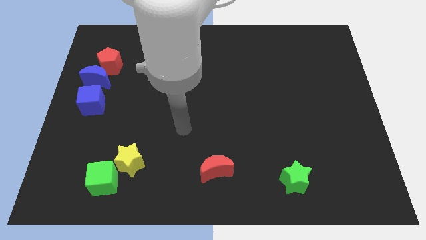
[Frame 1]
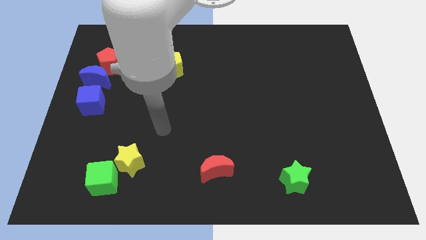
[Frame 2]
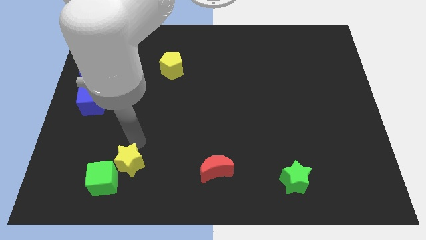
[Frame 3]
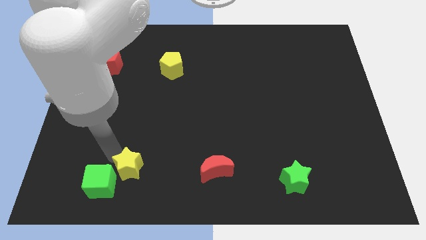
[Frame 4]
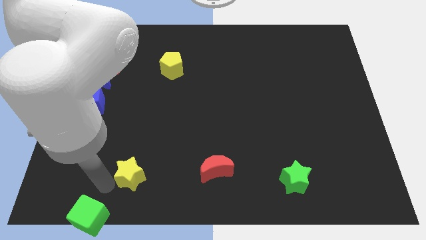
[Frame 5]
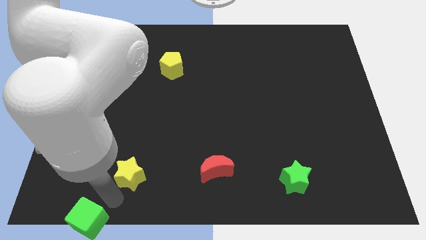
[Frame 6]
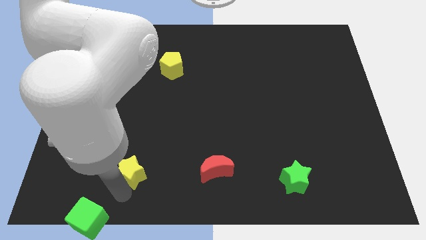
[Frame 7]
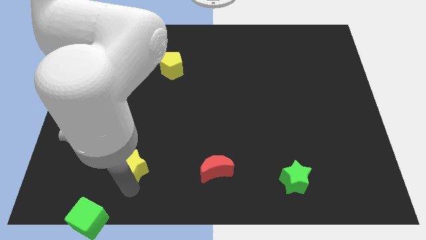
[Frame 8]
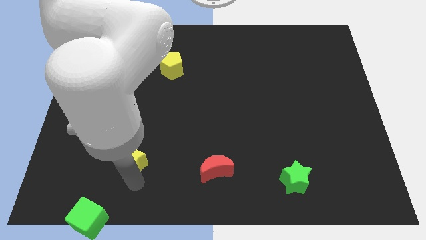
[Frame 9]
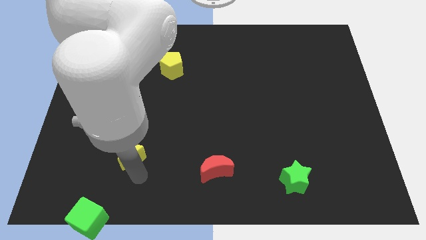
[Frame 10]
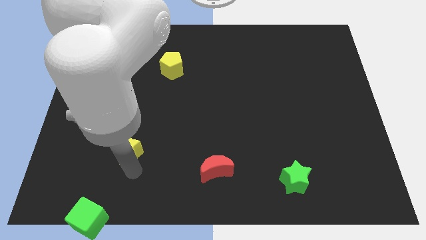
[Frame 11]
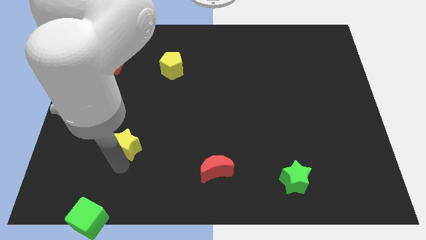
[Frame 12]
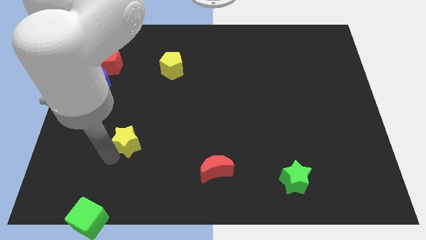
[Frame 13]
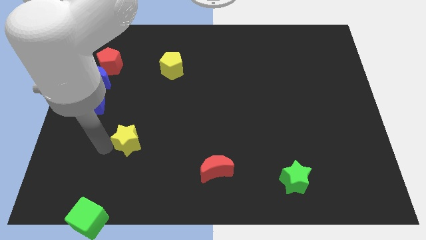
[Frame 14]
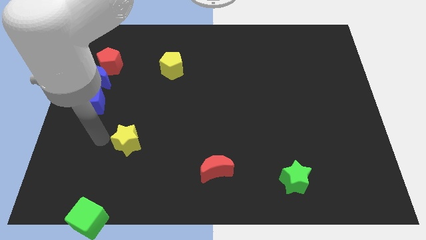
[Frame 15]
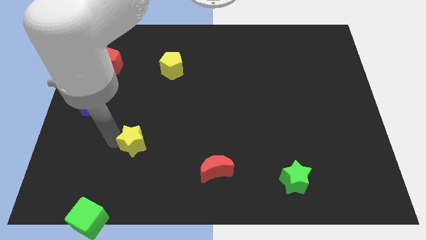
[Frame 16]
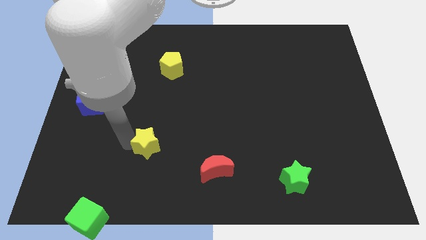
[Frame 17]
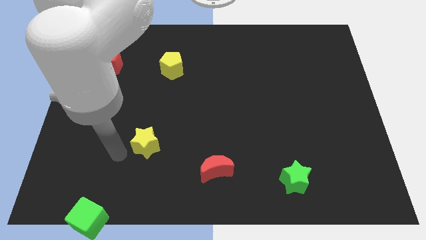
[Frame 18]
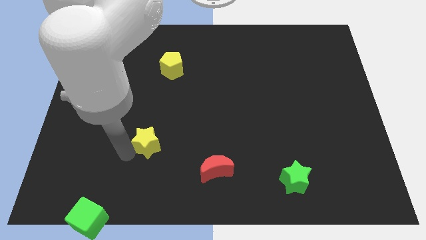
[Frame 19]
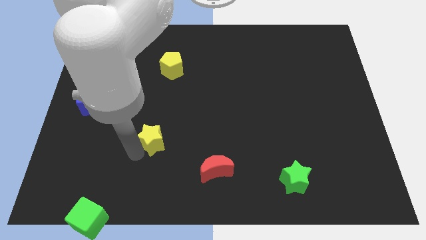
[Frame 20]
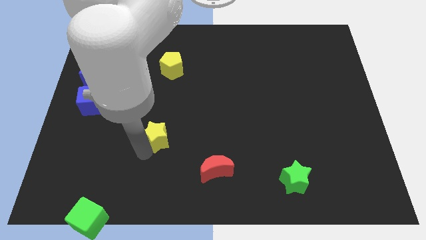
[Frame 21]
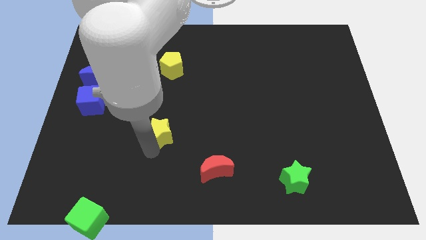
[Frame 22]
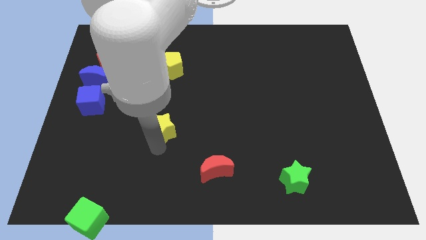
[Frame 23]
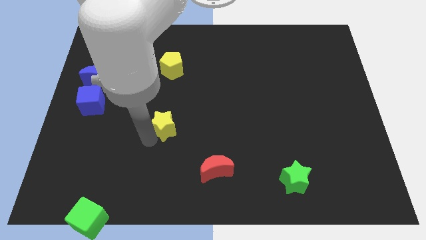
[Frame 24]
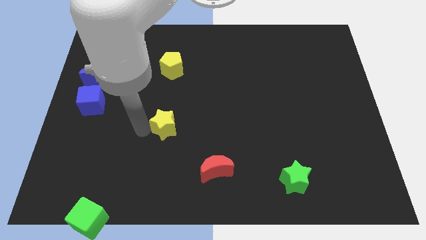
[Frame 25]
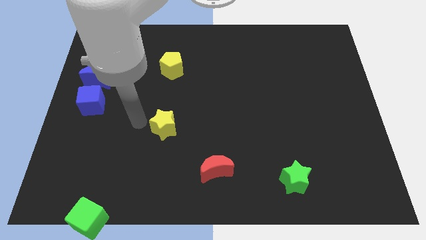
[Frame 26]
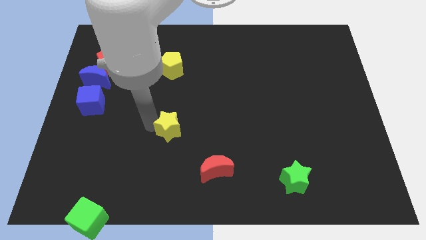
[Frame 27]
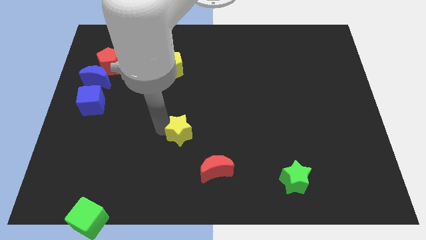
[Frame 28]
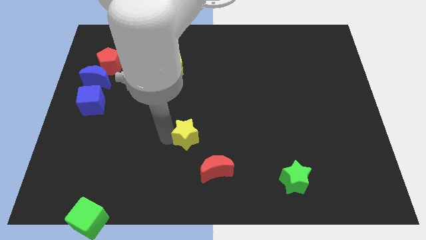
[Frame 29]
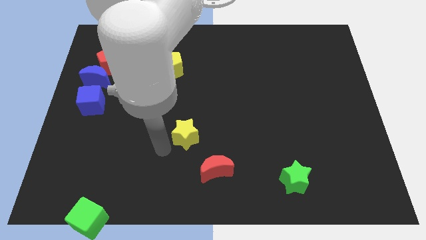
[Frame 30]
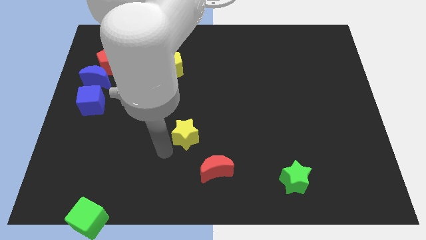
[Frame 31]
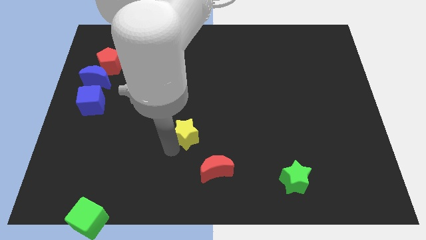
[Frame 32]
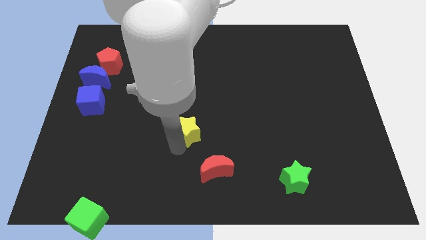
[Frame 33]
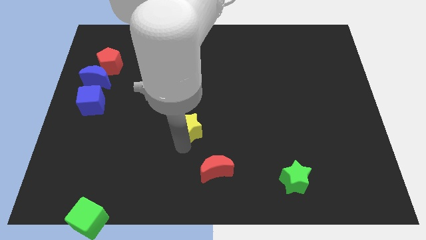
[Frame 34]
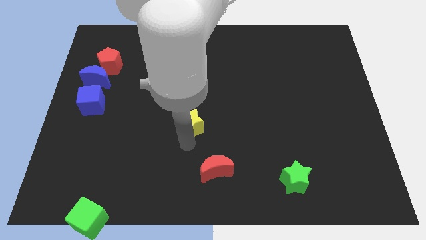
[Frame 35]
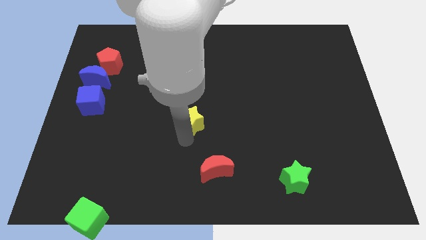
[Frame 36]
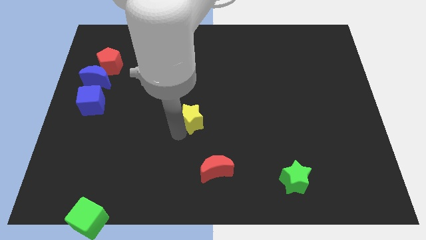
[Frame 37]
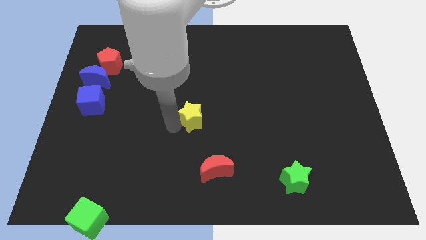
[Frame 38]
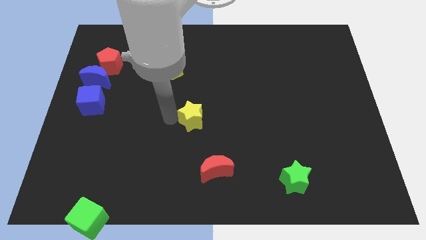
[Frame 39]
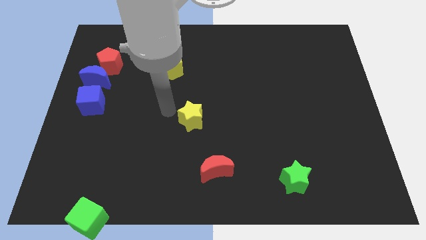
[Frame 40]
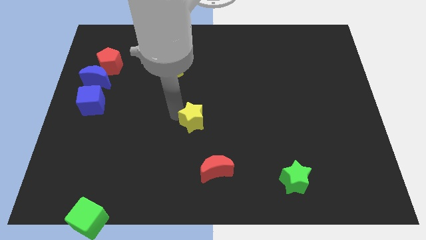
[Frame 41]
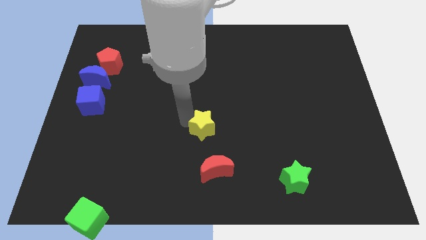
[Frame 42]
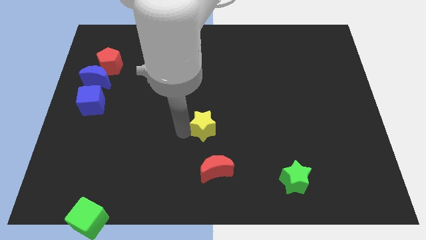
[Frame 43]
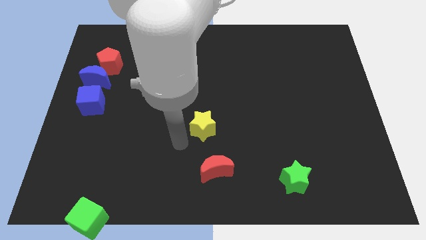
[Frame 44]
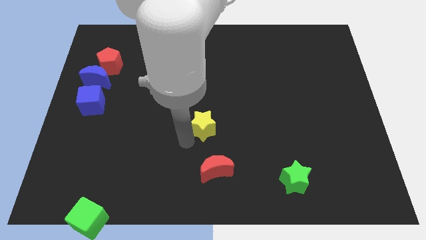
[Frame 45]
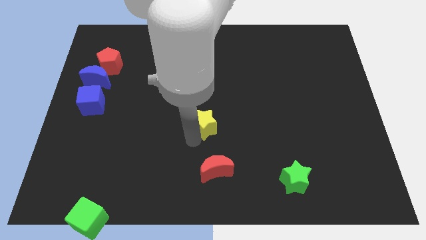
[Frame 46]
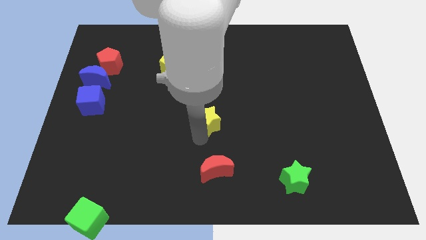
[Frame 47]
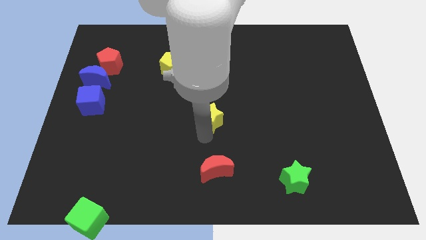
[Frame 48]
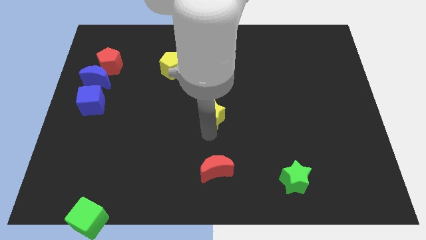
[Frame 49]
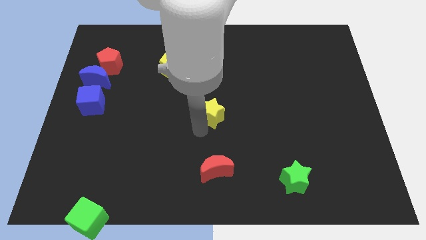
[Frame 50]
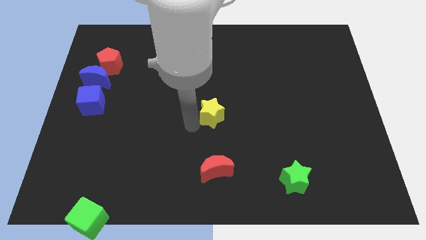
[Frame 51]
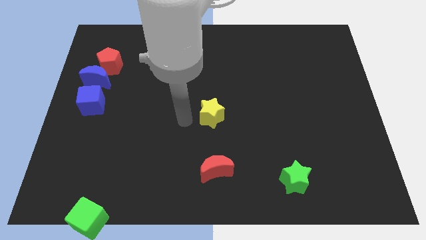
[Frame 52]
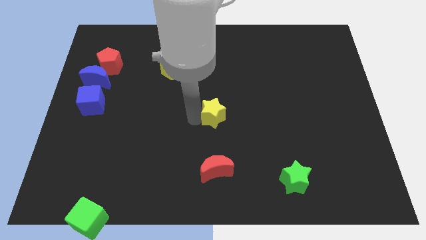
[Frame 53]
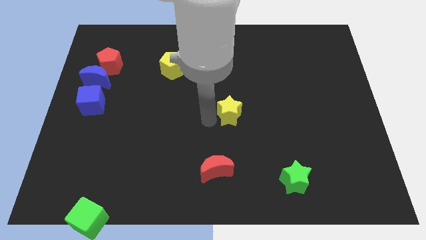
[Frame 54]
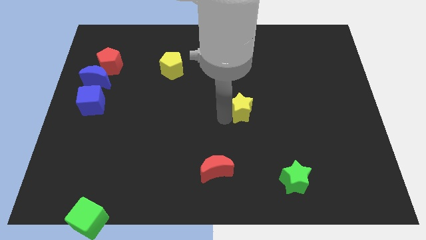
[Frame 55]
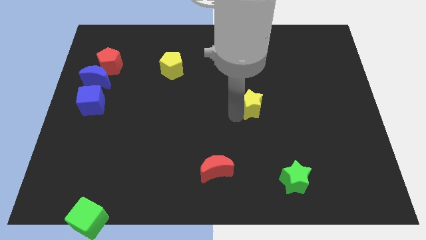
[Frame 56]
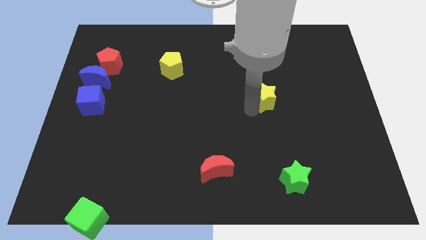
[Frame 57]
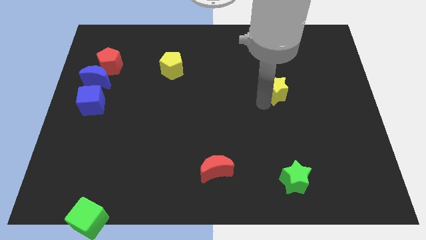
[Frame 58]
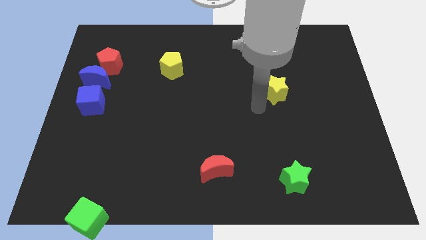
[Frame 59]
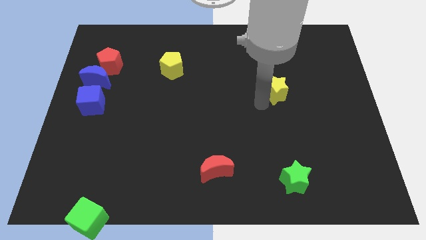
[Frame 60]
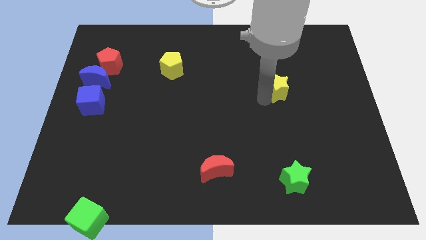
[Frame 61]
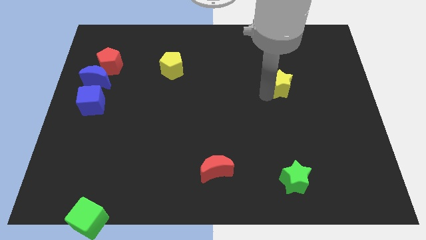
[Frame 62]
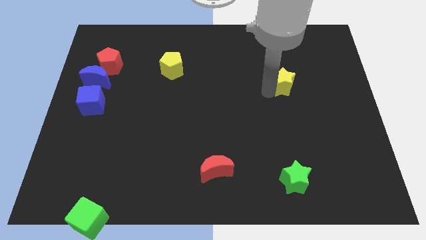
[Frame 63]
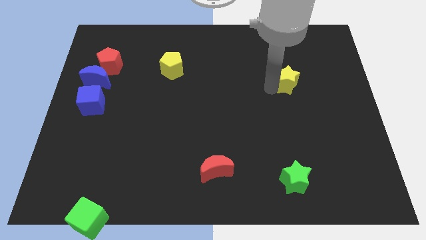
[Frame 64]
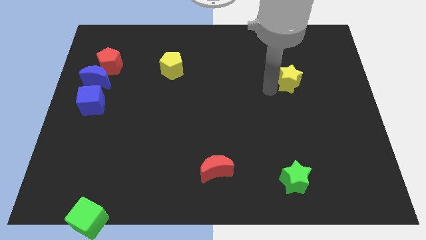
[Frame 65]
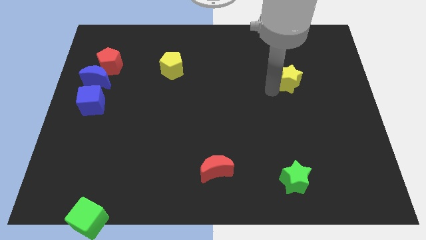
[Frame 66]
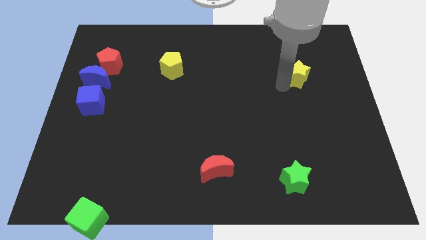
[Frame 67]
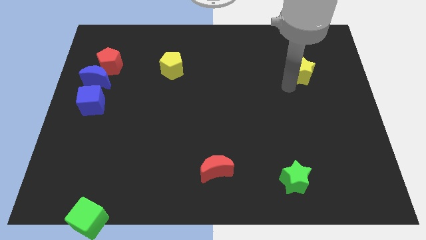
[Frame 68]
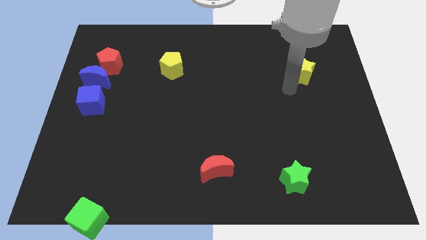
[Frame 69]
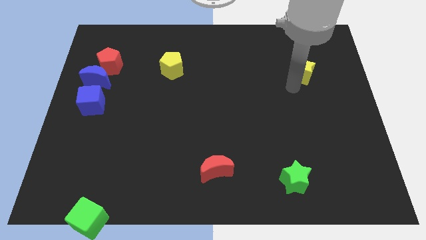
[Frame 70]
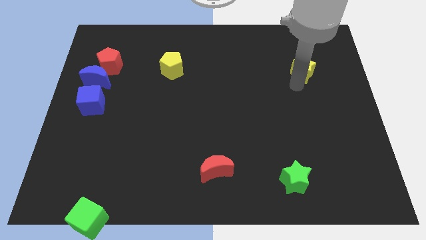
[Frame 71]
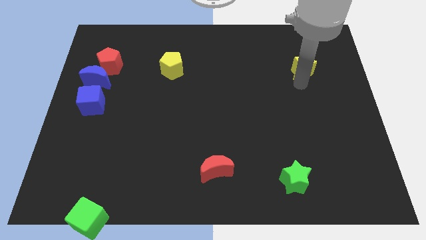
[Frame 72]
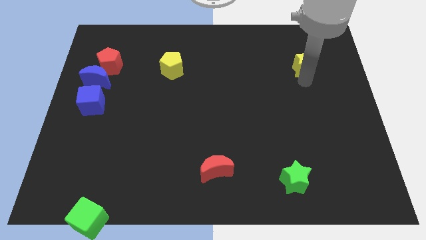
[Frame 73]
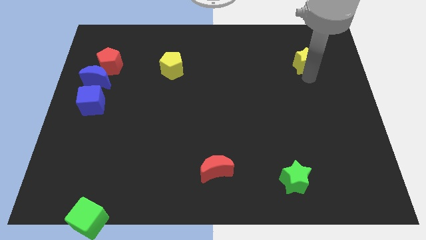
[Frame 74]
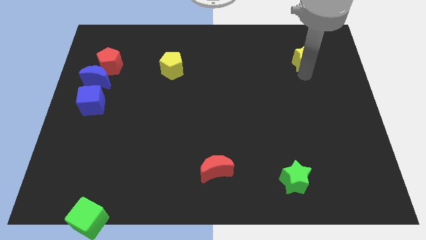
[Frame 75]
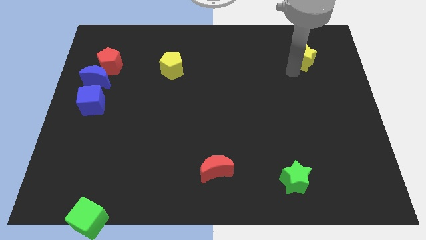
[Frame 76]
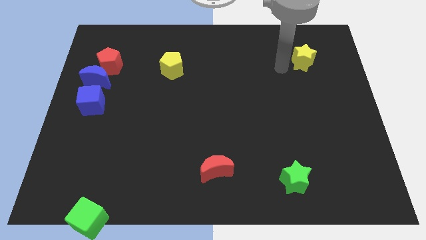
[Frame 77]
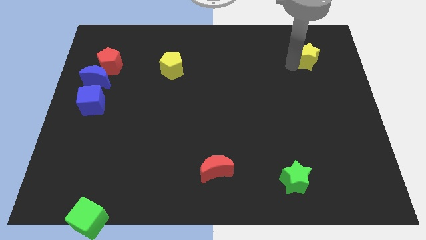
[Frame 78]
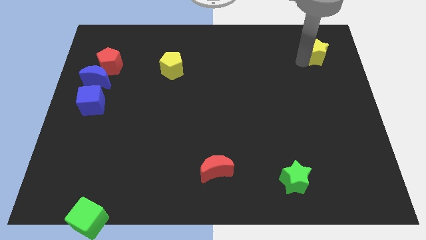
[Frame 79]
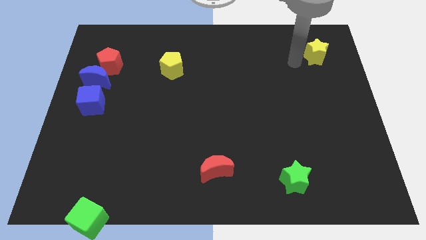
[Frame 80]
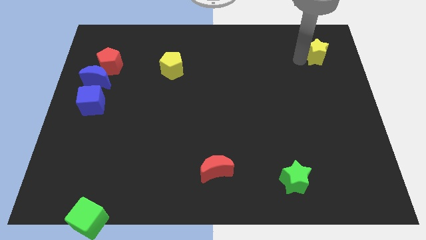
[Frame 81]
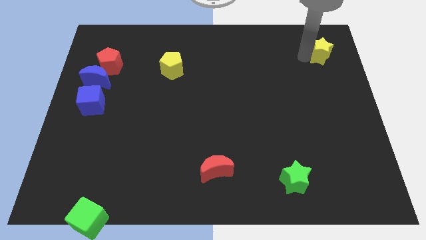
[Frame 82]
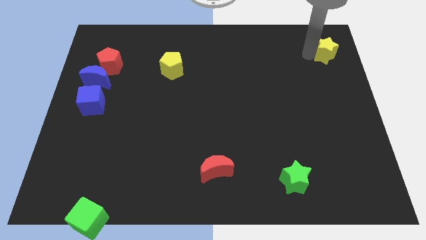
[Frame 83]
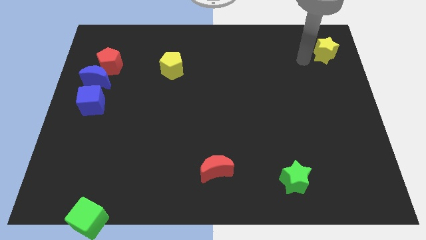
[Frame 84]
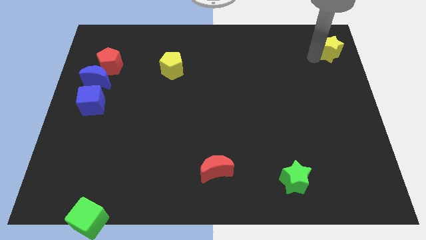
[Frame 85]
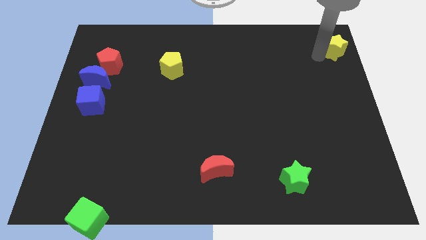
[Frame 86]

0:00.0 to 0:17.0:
move the yellow star to the top right
